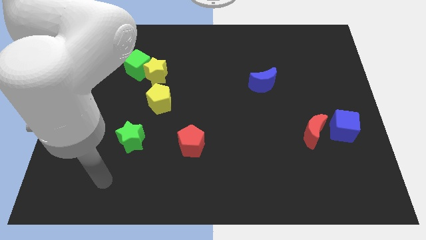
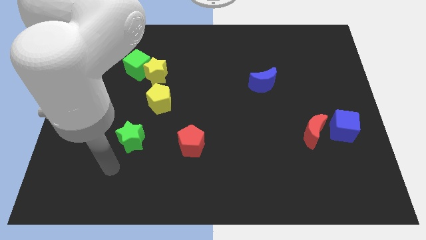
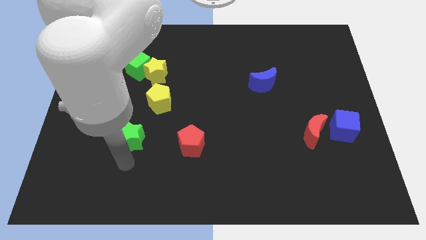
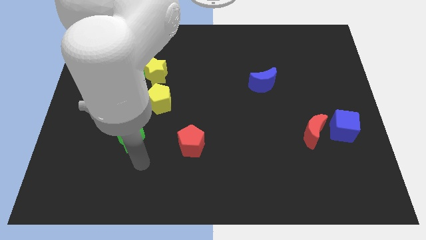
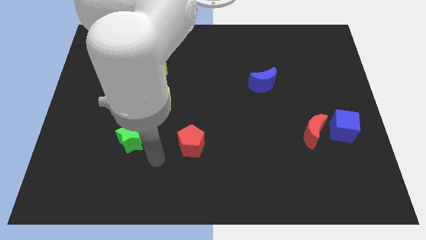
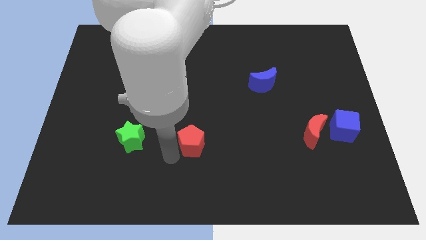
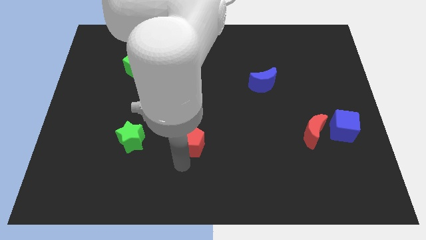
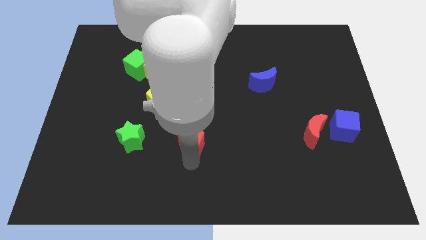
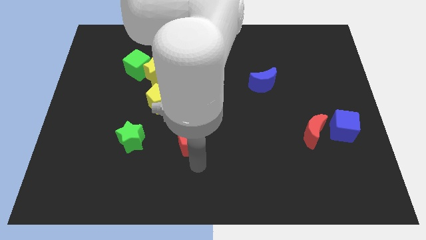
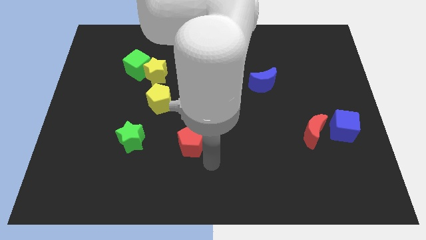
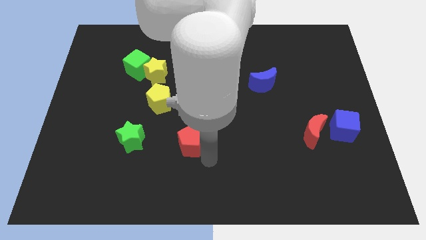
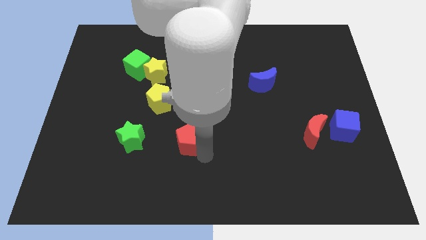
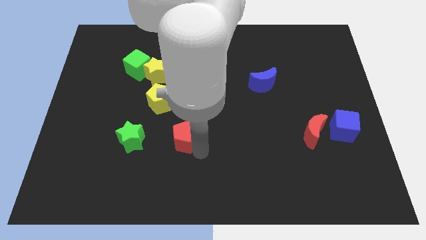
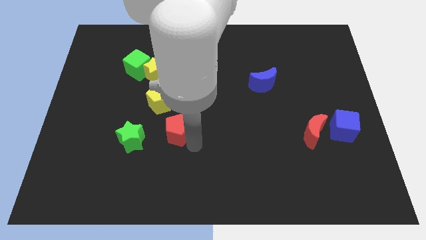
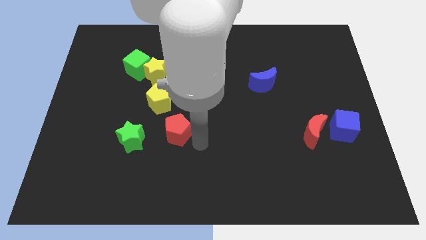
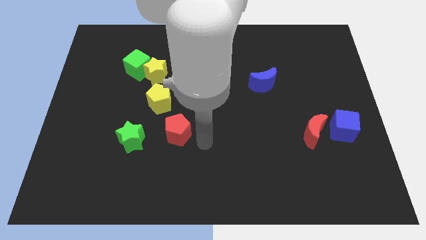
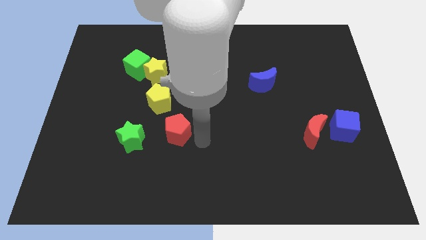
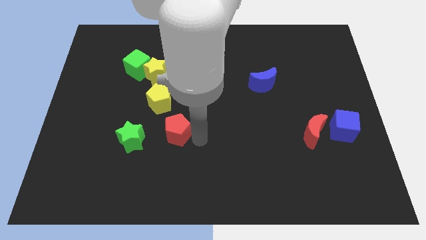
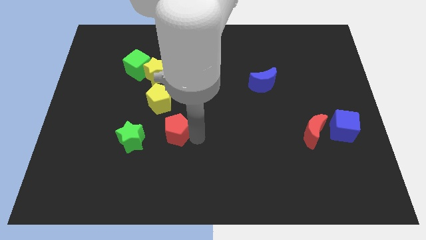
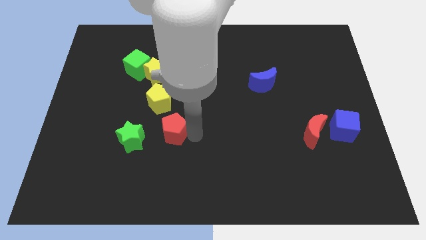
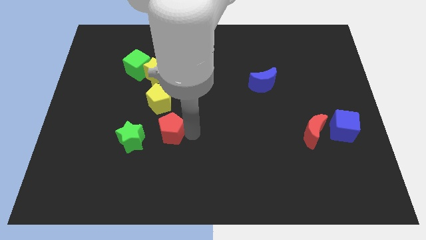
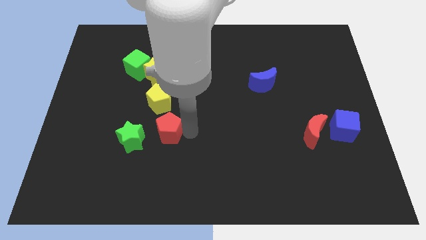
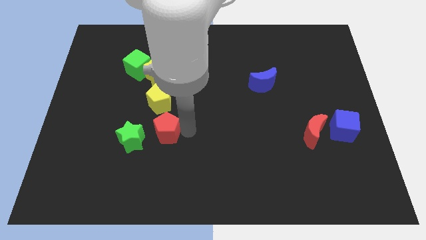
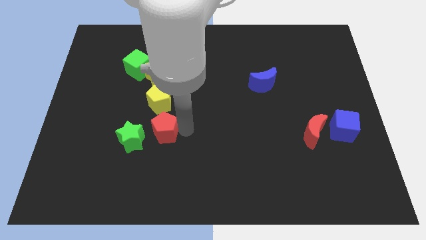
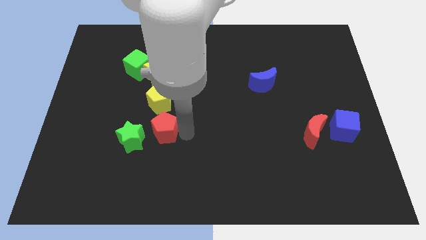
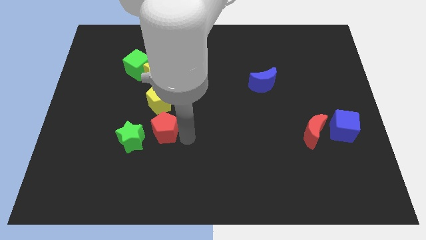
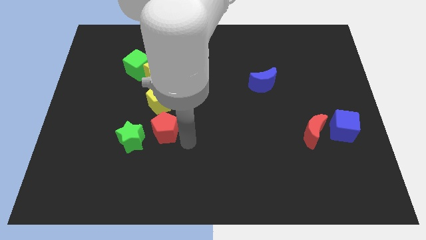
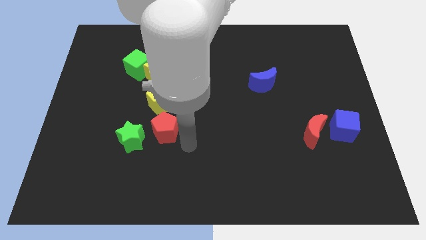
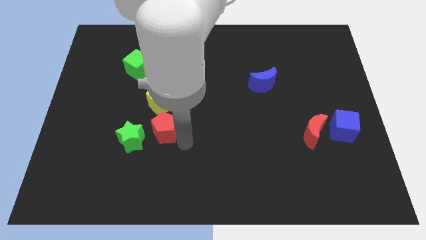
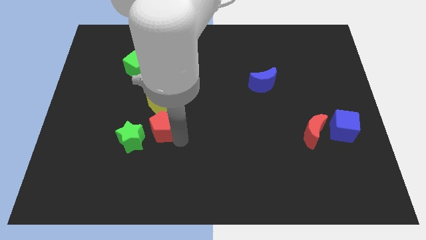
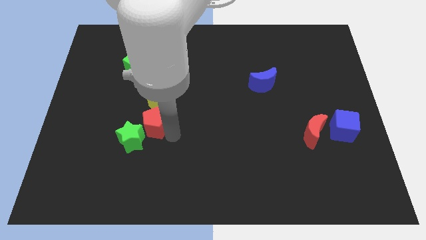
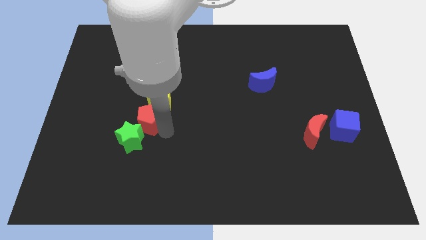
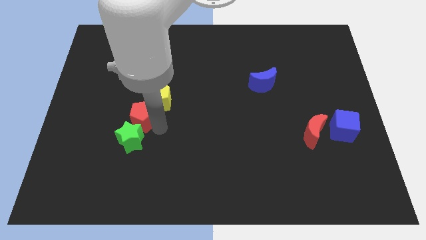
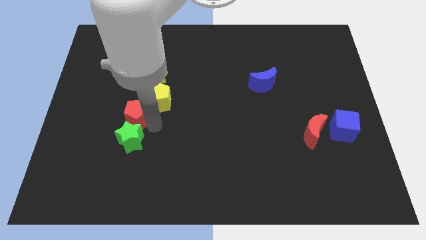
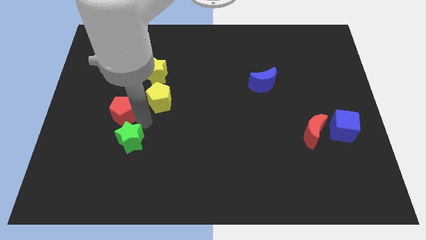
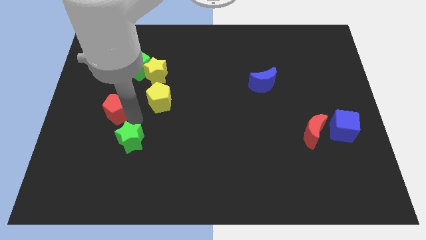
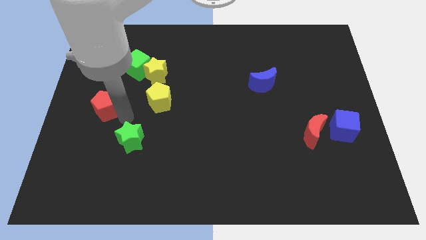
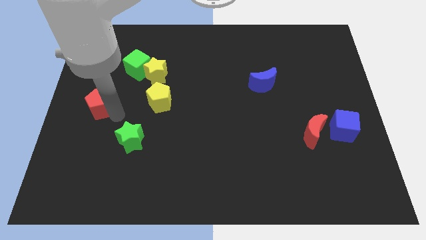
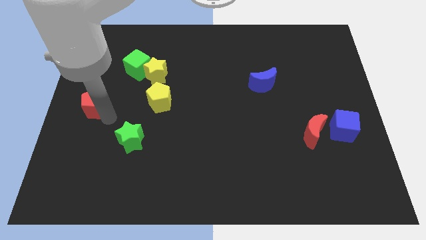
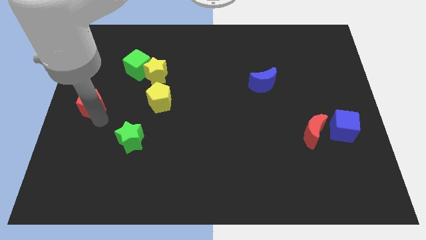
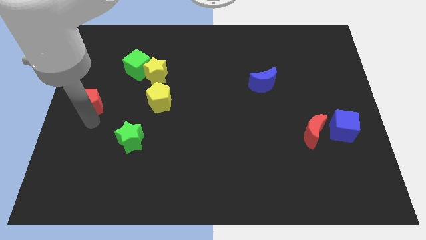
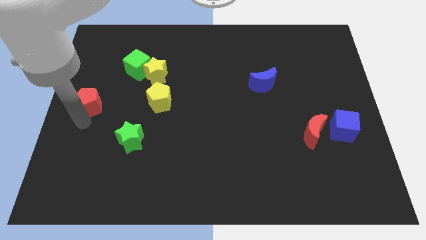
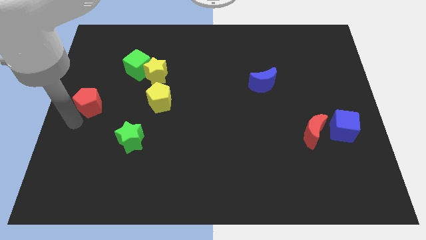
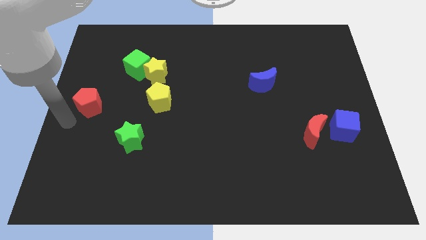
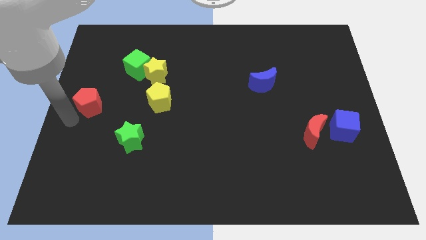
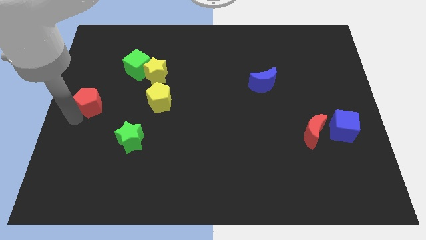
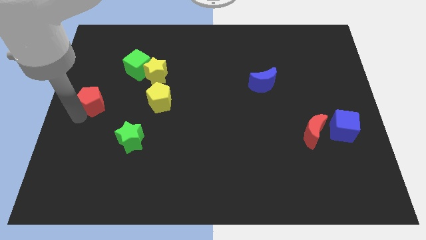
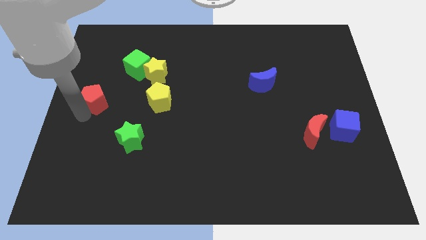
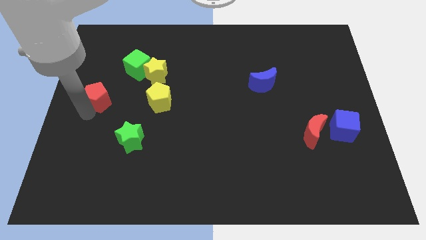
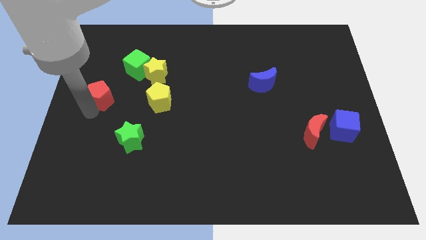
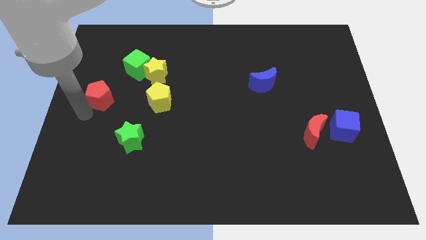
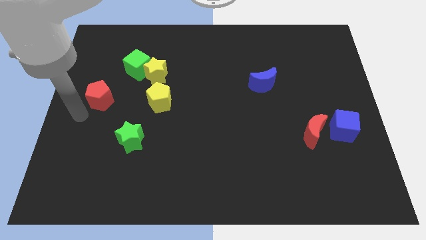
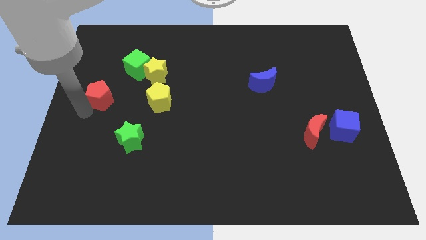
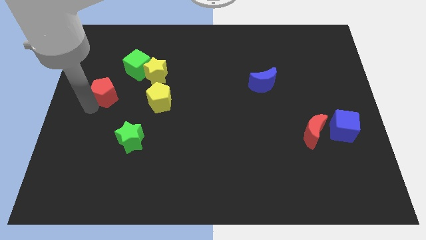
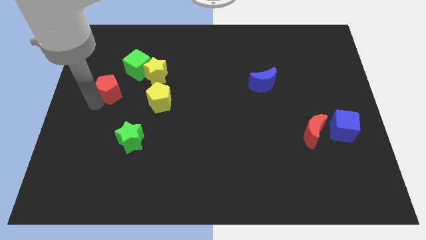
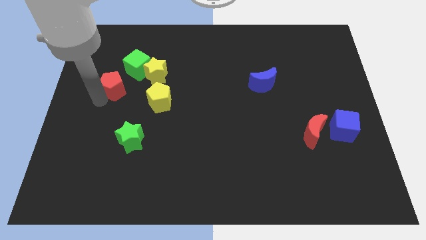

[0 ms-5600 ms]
slide the red pentagon to the left side of the yellow star

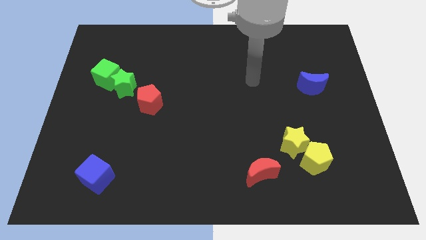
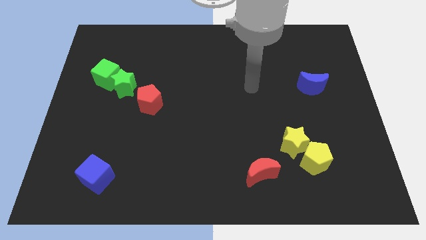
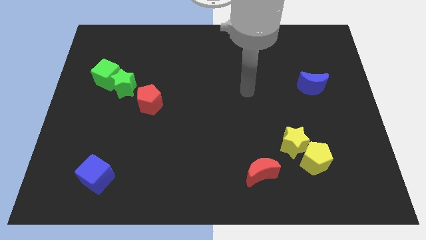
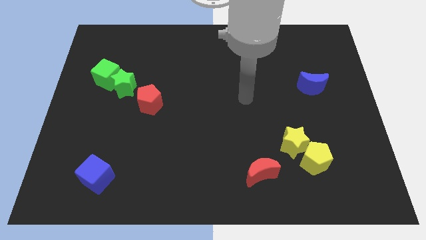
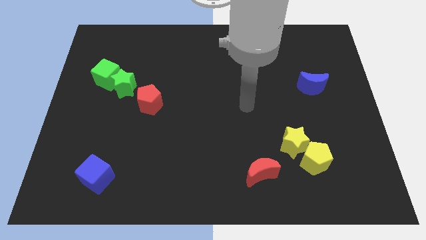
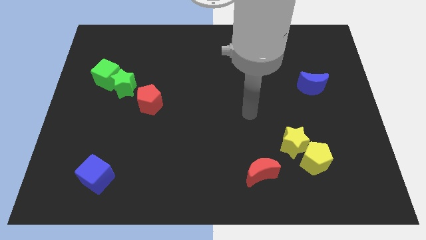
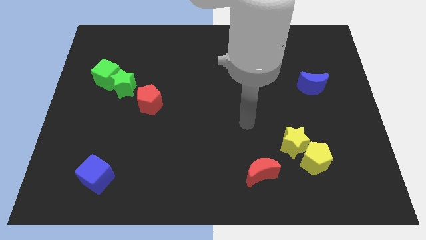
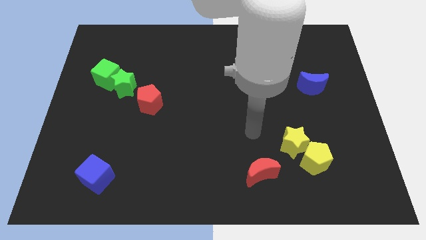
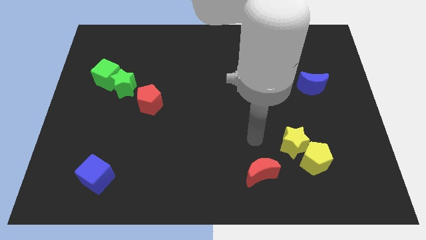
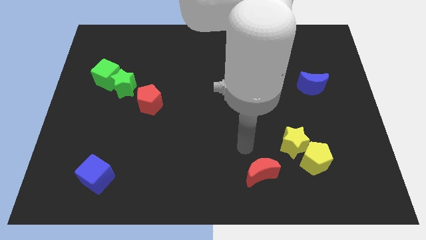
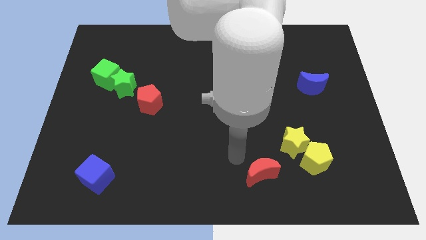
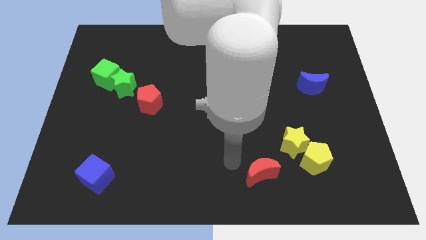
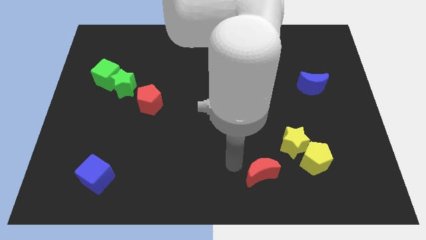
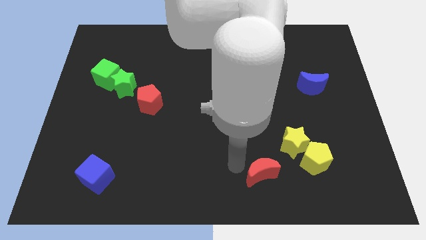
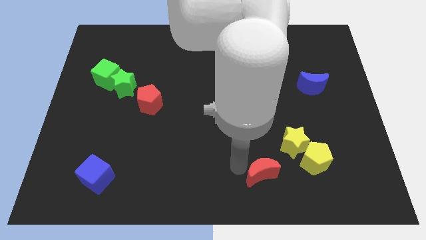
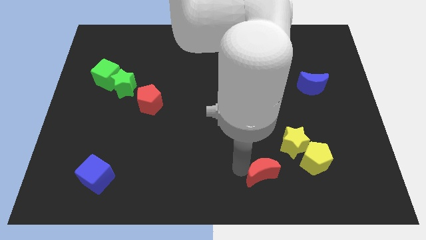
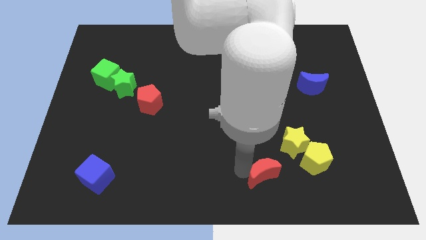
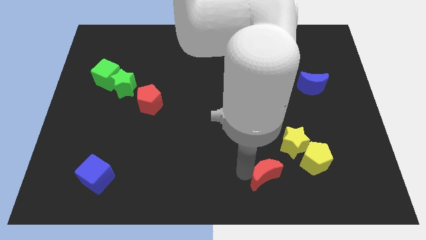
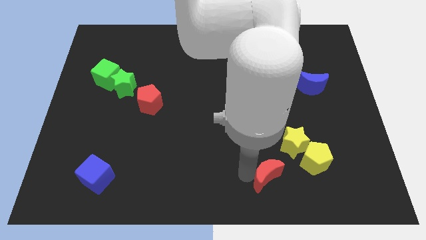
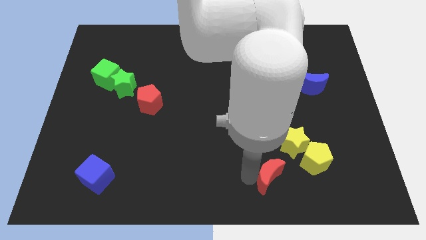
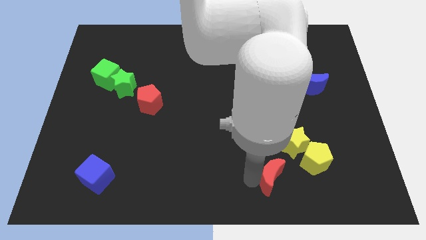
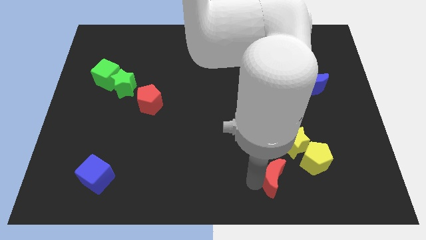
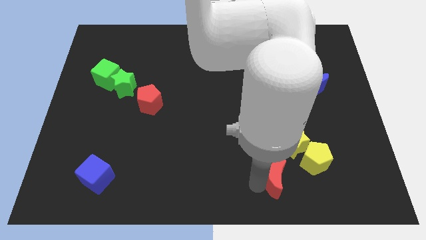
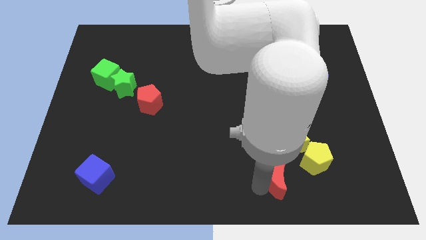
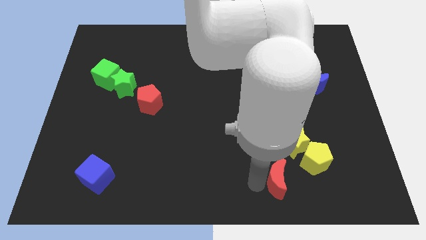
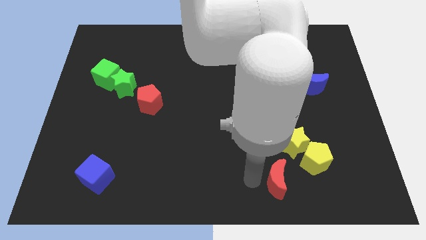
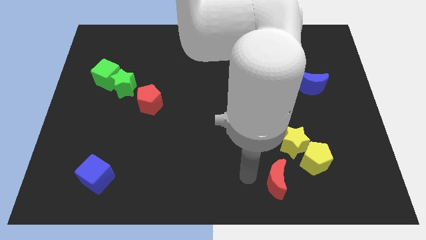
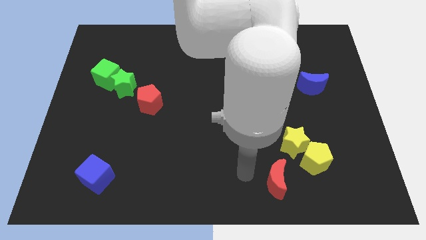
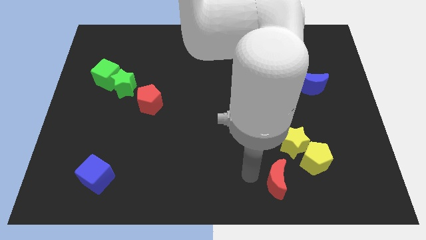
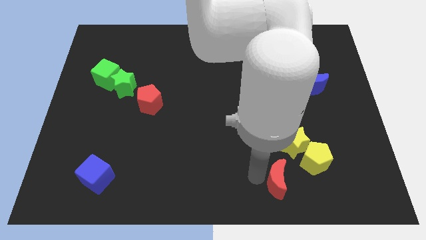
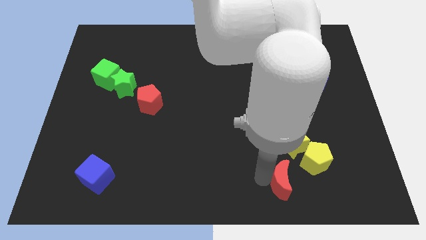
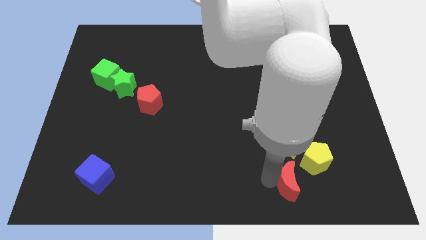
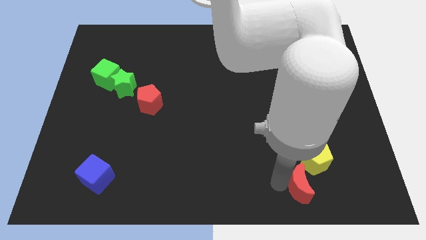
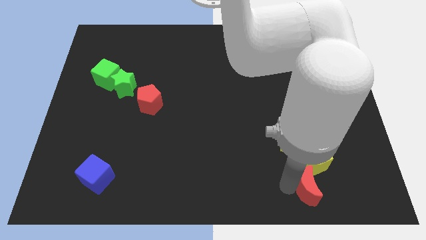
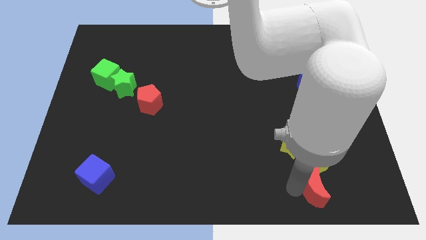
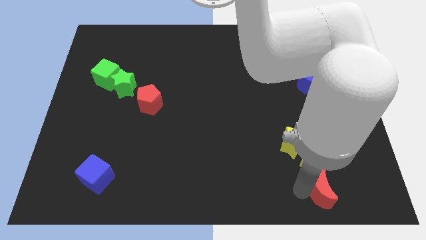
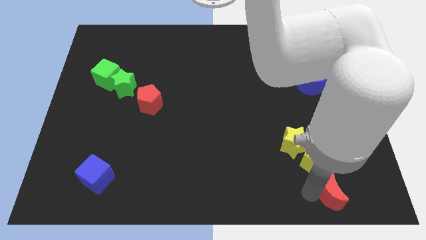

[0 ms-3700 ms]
push the red moon to the bottom right side of the yellow pentagon
